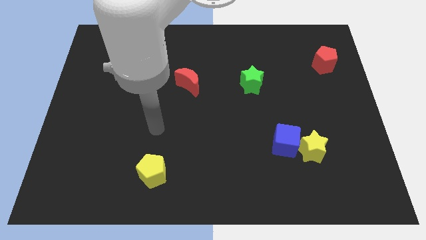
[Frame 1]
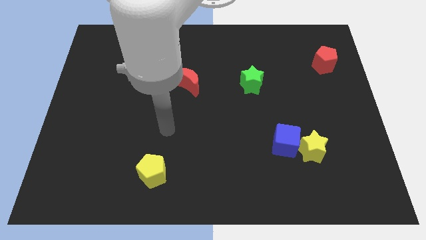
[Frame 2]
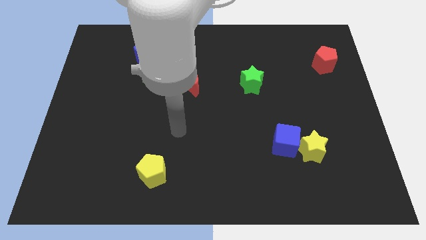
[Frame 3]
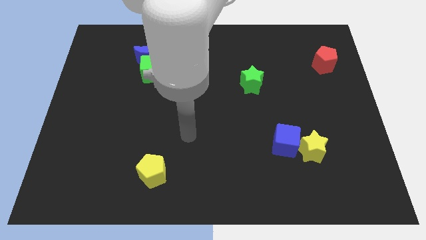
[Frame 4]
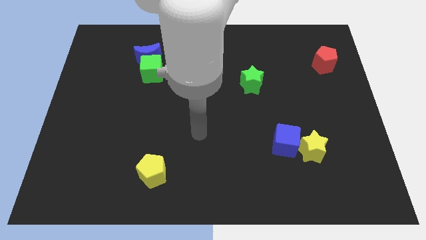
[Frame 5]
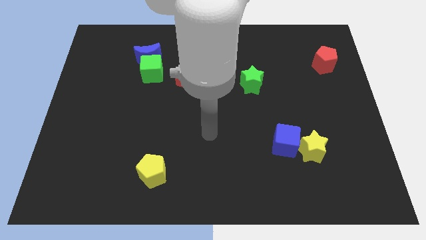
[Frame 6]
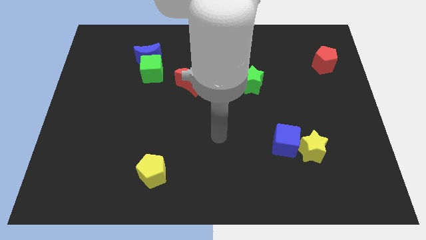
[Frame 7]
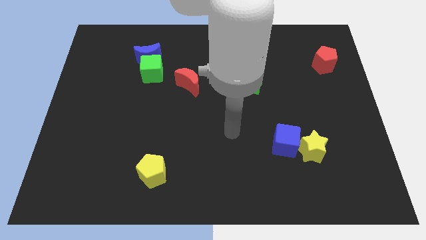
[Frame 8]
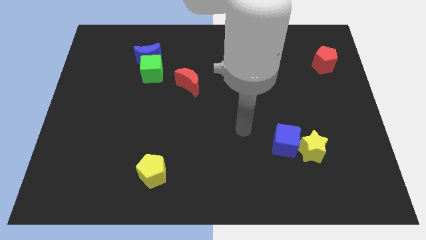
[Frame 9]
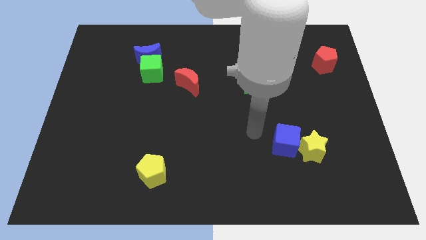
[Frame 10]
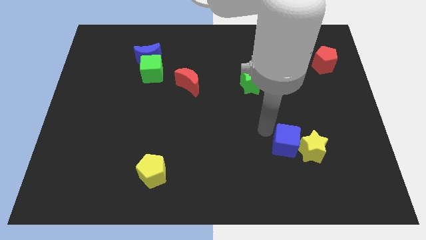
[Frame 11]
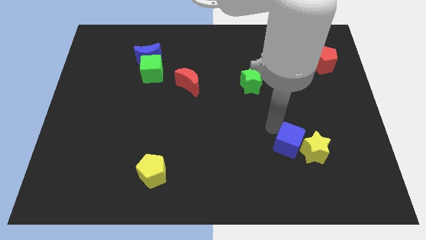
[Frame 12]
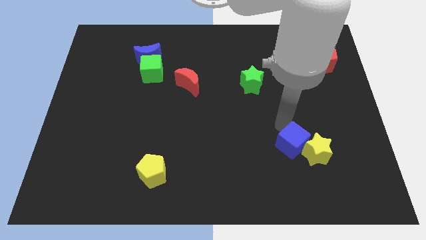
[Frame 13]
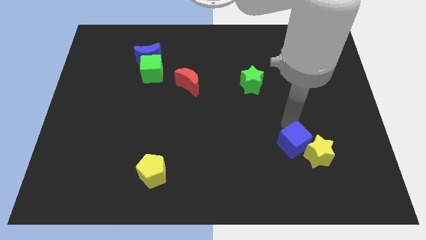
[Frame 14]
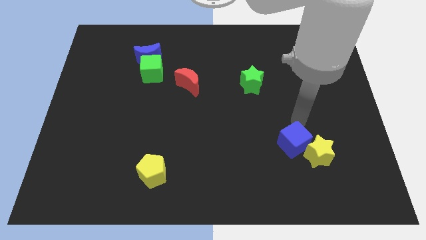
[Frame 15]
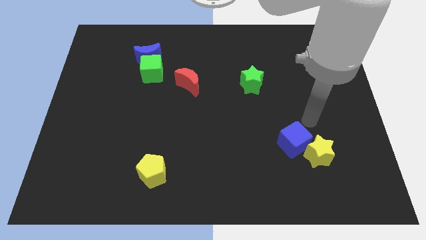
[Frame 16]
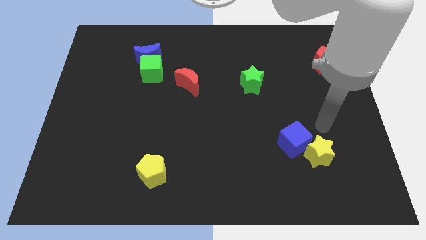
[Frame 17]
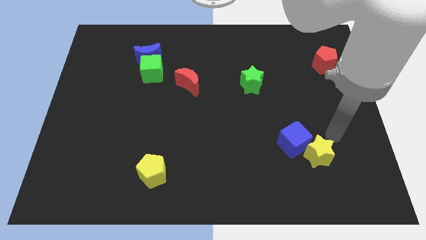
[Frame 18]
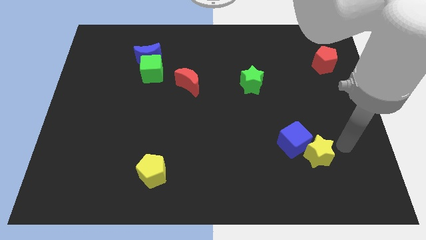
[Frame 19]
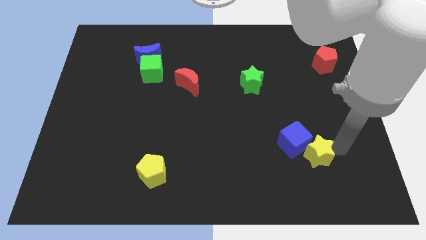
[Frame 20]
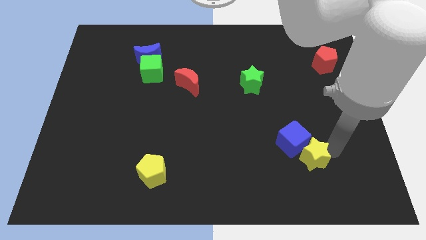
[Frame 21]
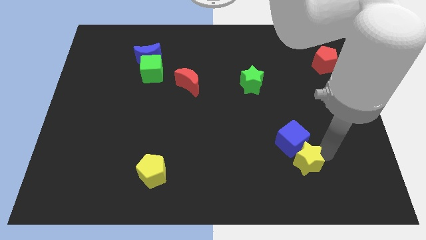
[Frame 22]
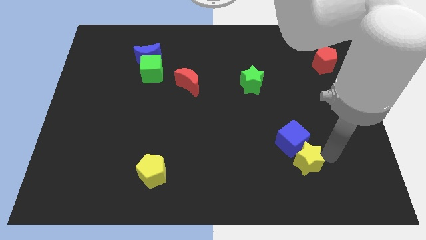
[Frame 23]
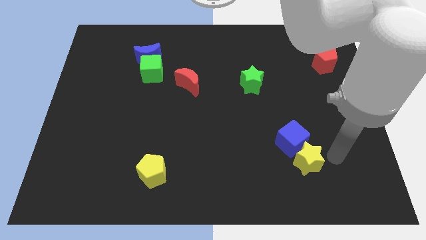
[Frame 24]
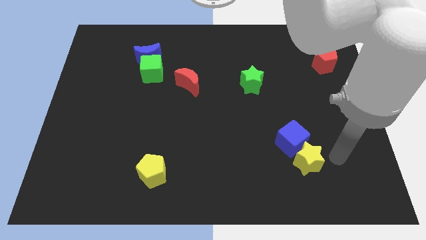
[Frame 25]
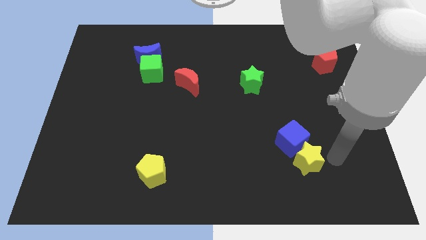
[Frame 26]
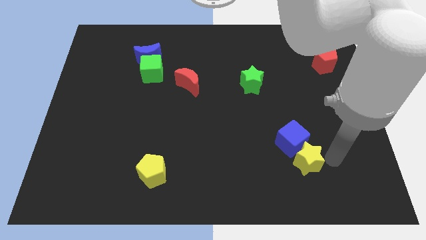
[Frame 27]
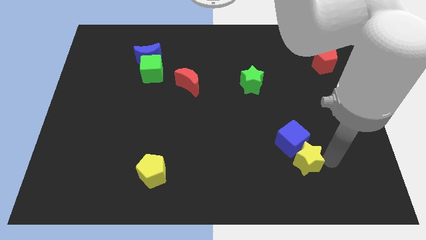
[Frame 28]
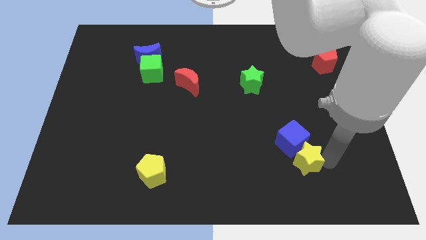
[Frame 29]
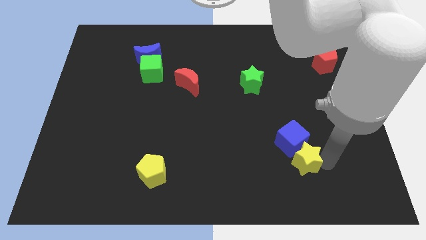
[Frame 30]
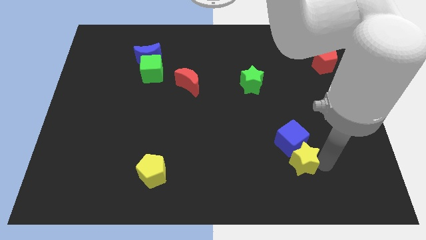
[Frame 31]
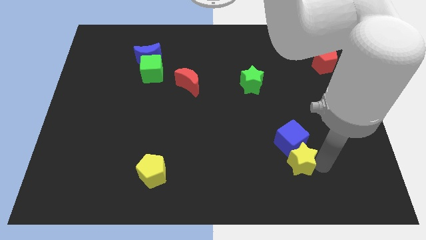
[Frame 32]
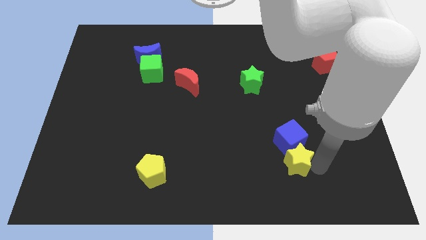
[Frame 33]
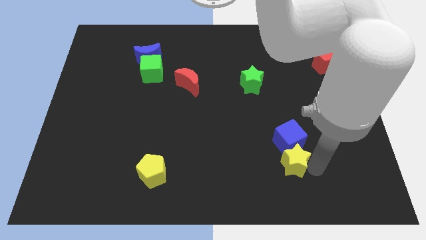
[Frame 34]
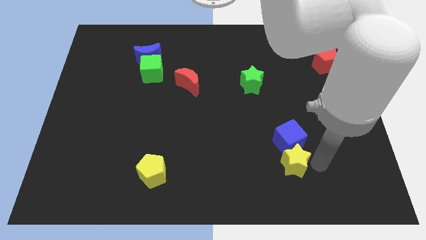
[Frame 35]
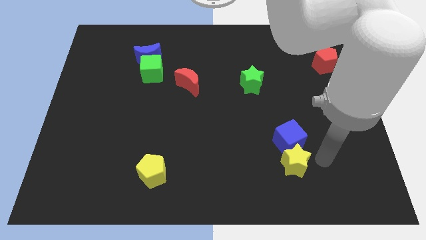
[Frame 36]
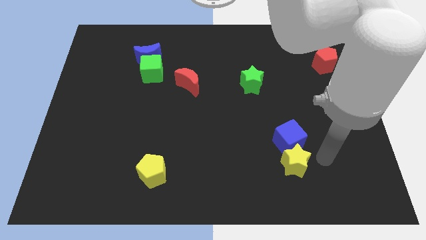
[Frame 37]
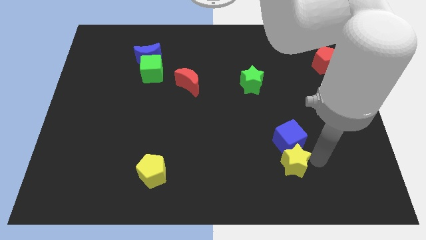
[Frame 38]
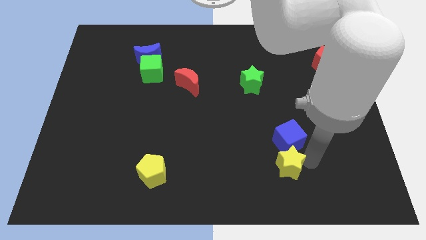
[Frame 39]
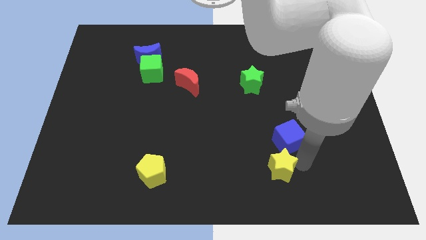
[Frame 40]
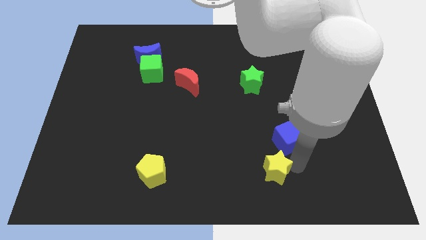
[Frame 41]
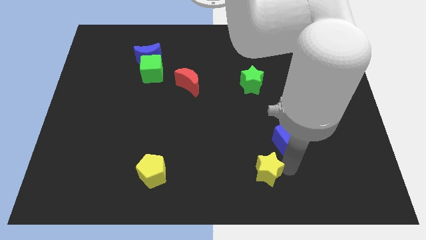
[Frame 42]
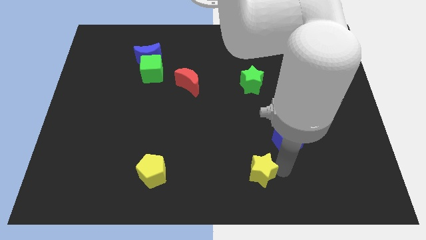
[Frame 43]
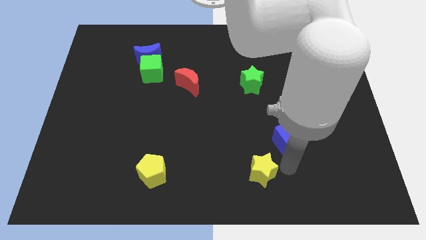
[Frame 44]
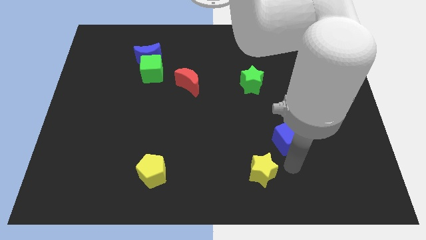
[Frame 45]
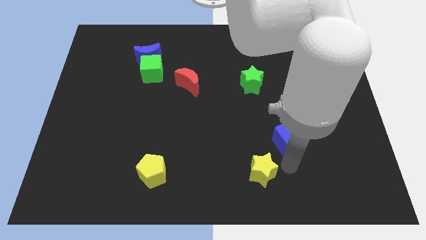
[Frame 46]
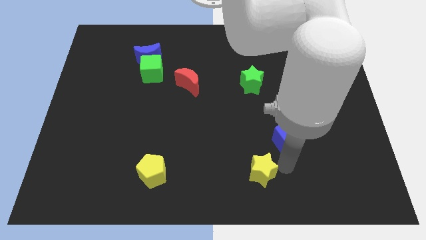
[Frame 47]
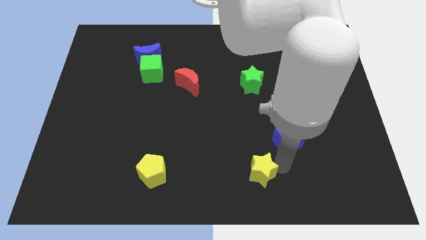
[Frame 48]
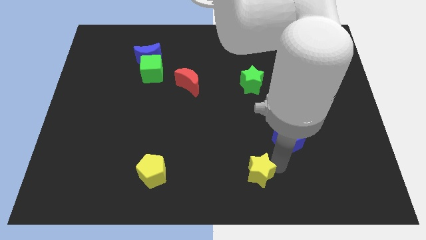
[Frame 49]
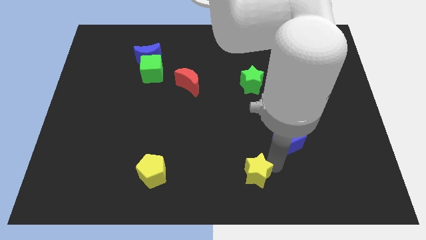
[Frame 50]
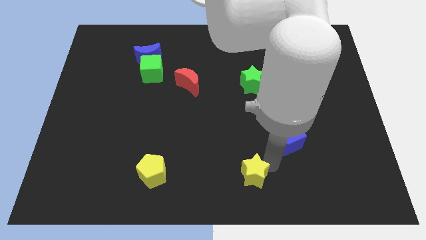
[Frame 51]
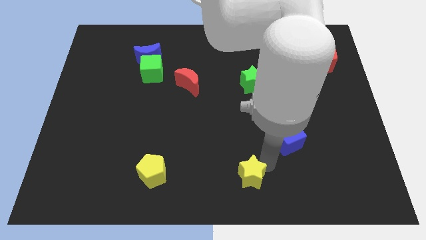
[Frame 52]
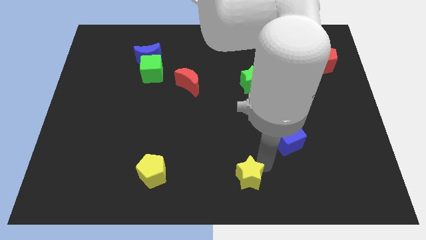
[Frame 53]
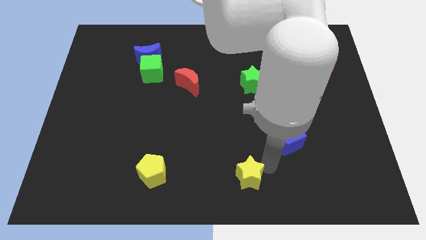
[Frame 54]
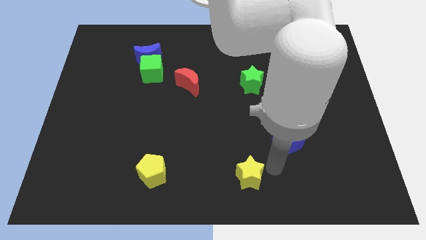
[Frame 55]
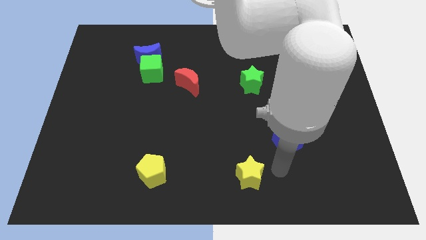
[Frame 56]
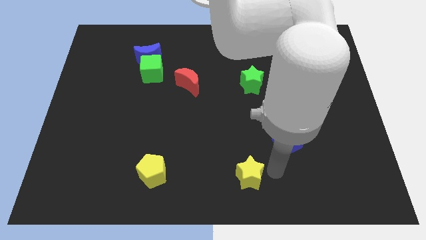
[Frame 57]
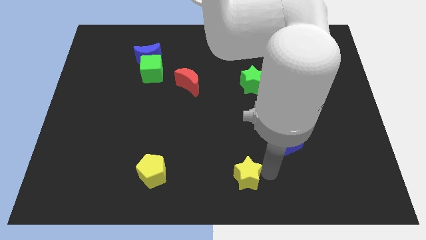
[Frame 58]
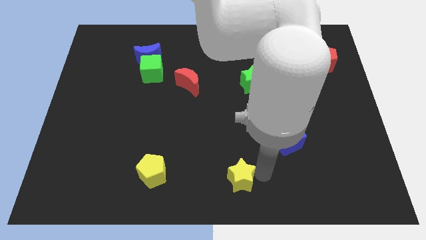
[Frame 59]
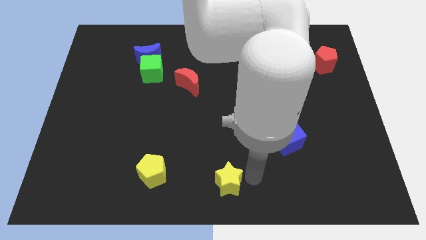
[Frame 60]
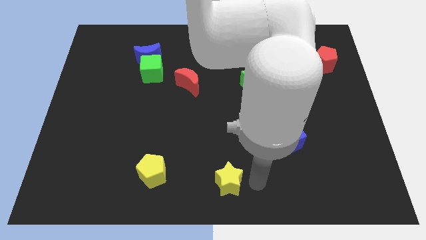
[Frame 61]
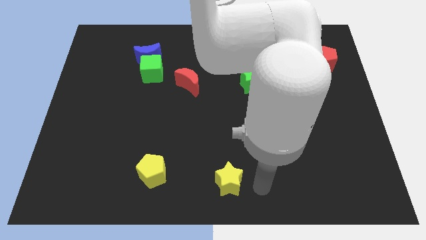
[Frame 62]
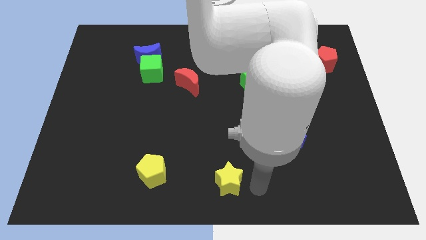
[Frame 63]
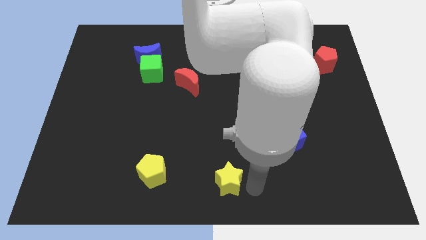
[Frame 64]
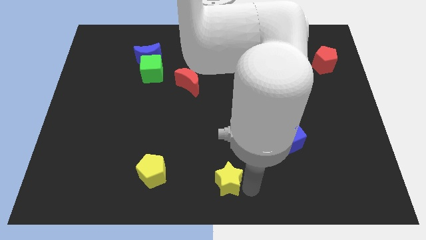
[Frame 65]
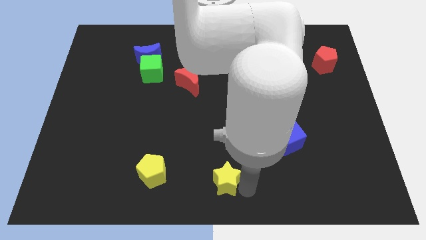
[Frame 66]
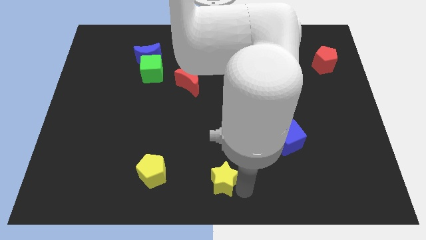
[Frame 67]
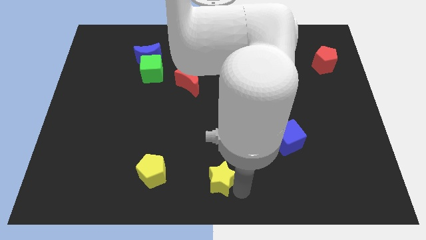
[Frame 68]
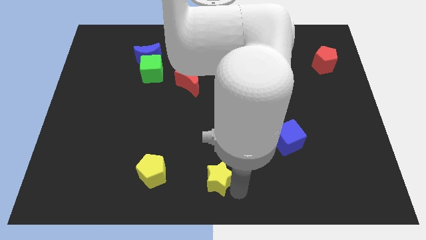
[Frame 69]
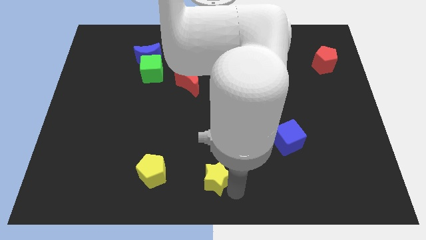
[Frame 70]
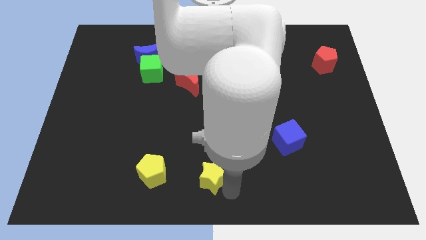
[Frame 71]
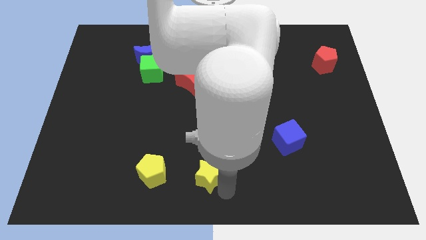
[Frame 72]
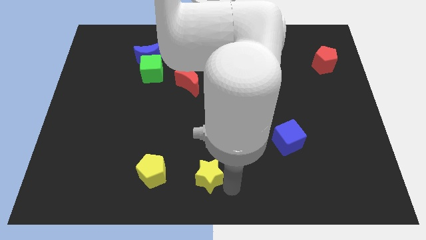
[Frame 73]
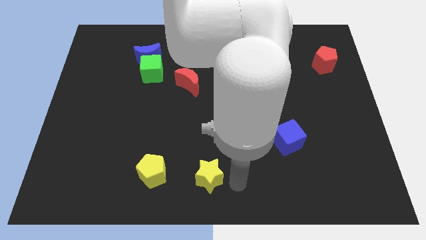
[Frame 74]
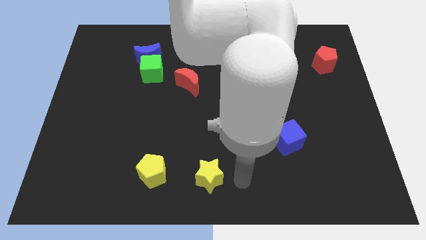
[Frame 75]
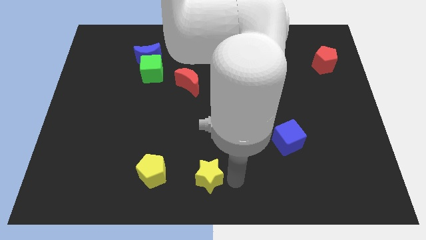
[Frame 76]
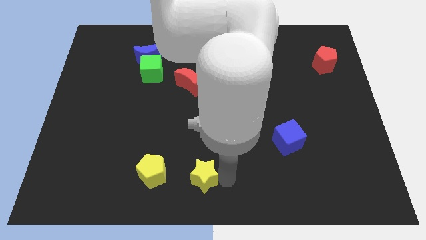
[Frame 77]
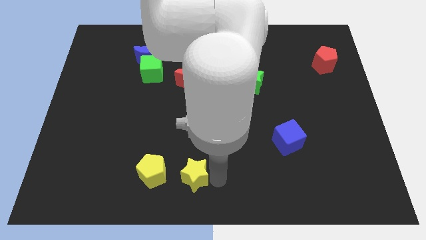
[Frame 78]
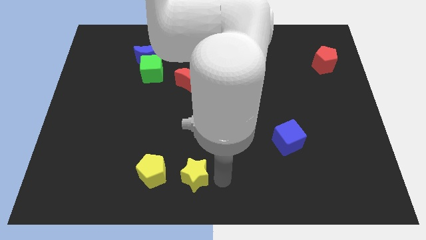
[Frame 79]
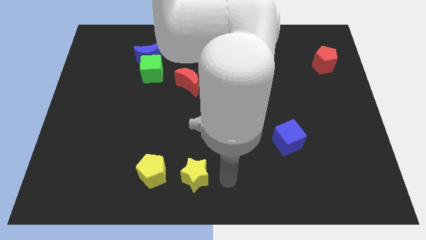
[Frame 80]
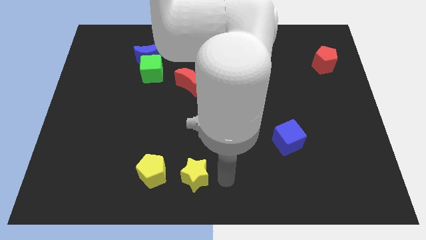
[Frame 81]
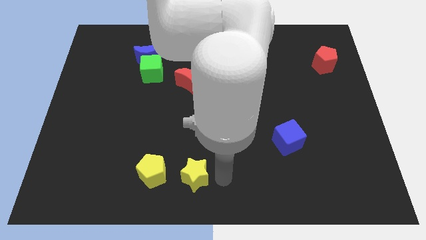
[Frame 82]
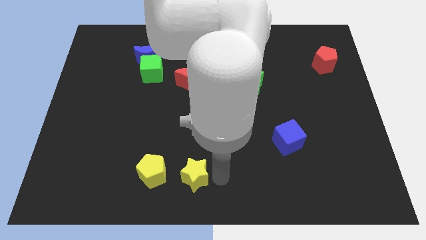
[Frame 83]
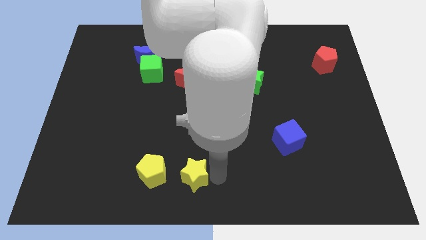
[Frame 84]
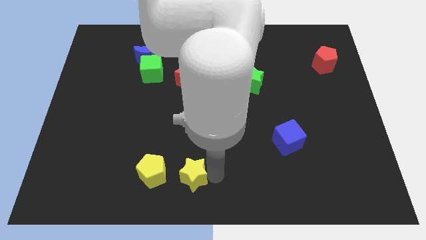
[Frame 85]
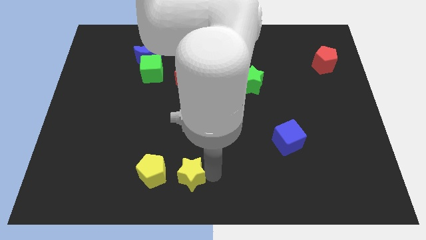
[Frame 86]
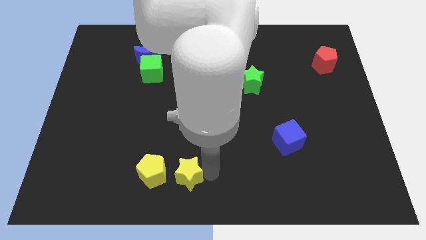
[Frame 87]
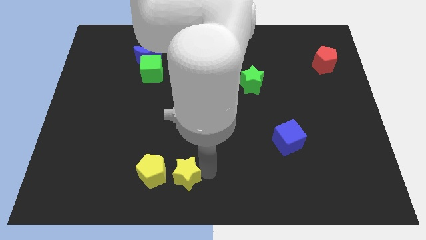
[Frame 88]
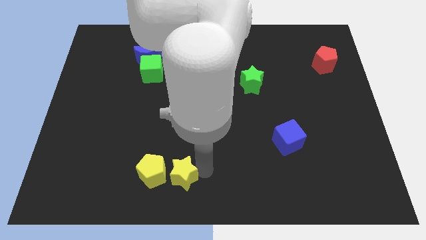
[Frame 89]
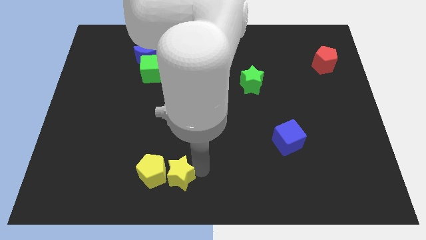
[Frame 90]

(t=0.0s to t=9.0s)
slide the yellow star close to the yellow pentagon
